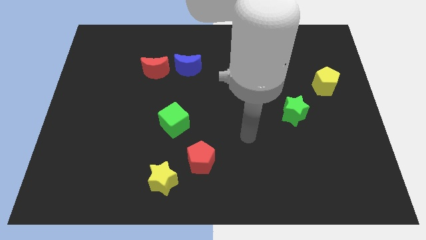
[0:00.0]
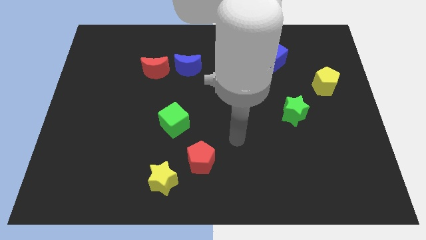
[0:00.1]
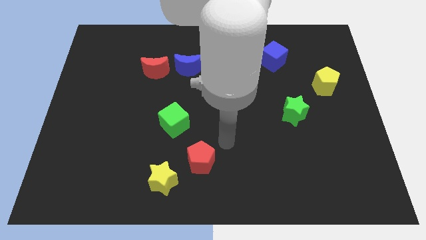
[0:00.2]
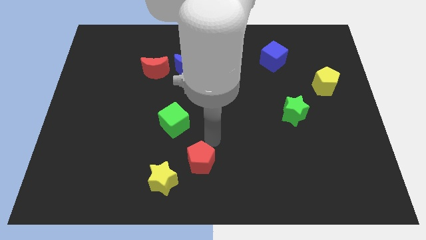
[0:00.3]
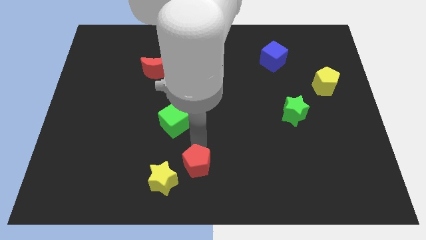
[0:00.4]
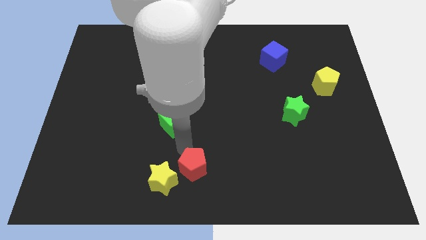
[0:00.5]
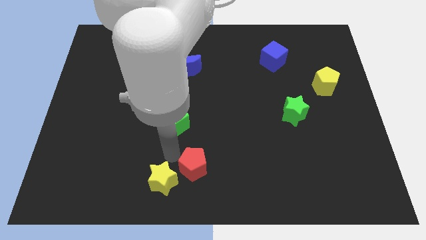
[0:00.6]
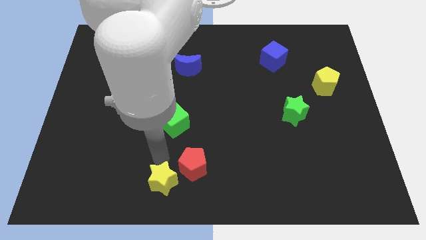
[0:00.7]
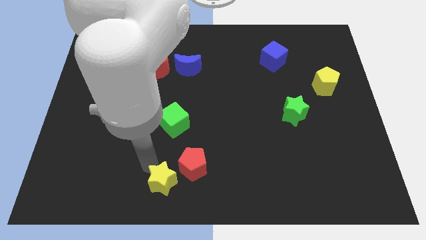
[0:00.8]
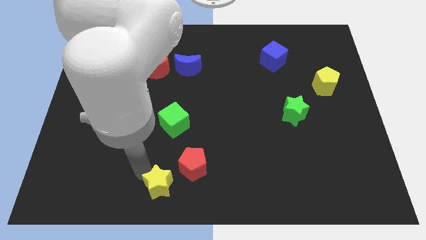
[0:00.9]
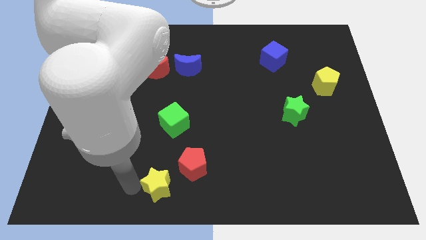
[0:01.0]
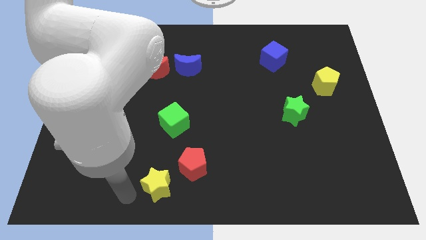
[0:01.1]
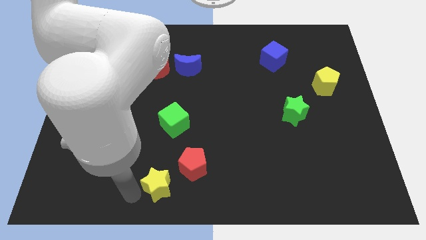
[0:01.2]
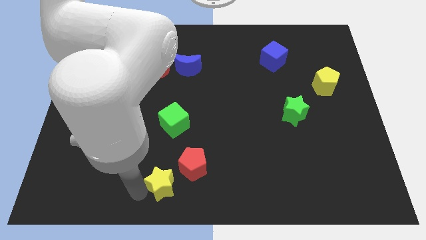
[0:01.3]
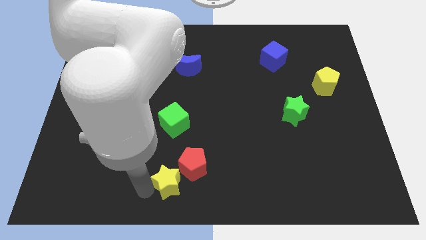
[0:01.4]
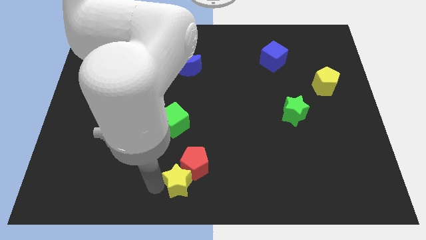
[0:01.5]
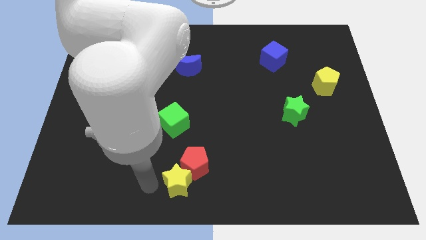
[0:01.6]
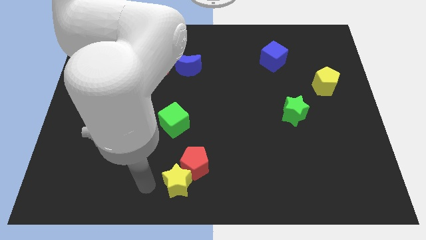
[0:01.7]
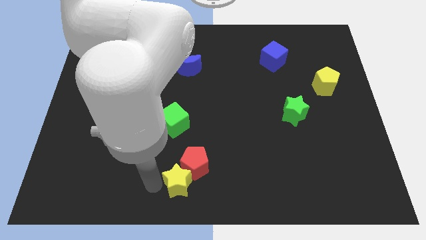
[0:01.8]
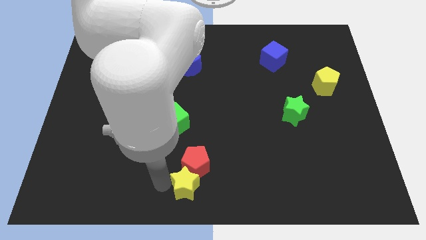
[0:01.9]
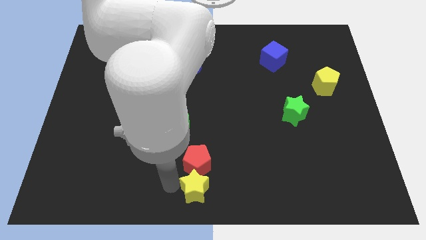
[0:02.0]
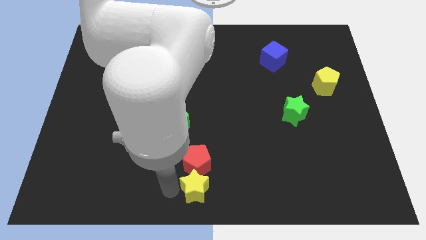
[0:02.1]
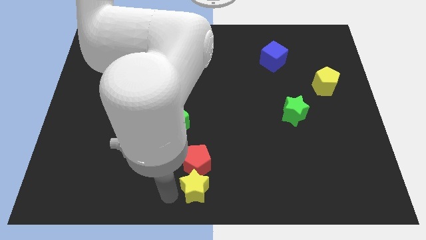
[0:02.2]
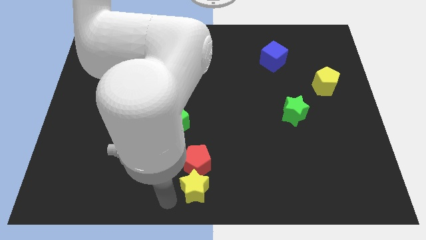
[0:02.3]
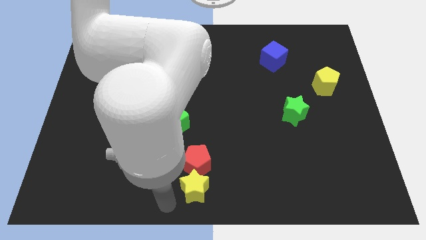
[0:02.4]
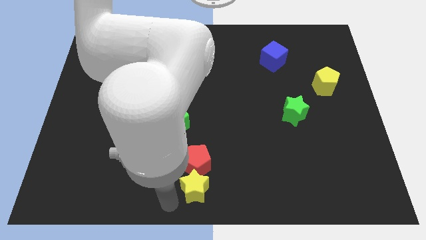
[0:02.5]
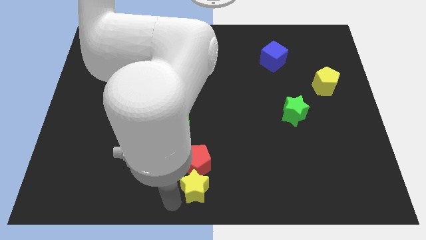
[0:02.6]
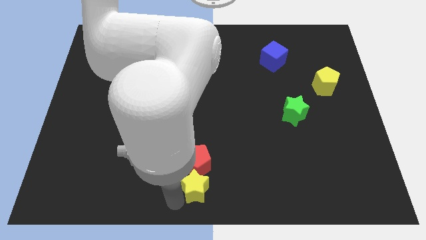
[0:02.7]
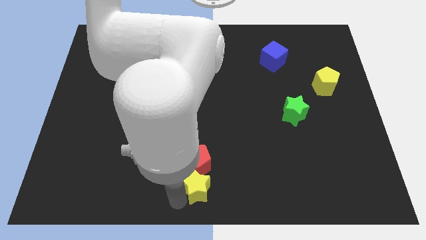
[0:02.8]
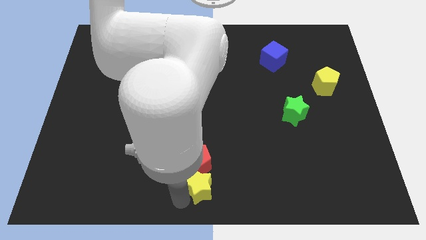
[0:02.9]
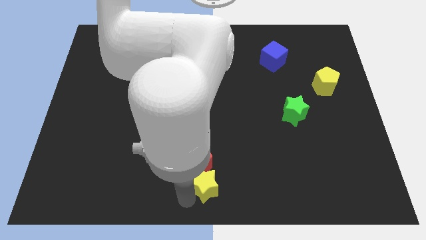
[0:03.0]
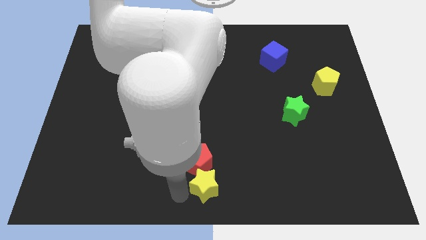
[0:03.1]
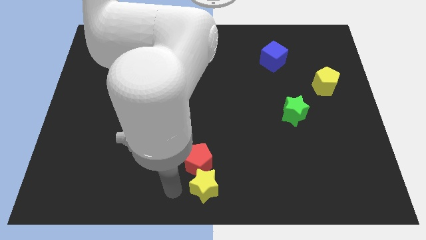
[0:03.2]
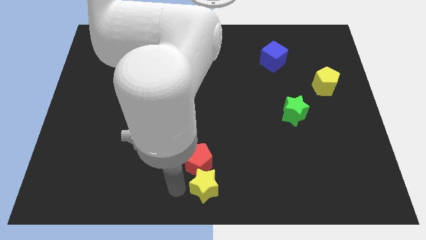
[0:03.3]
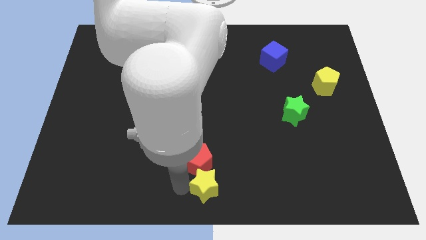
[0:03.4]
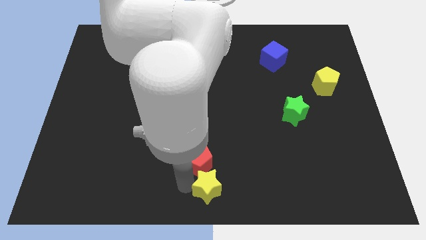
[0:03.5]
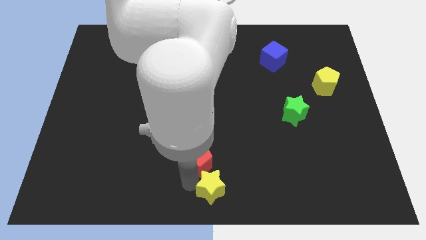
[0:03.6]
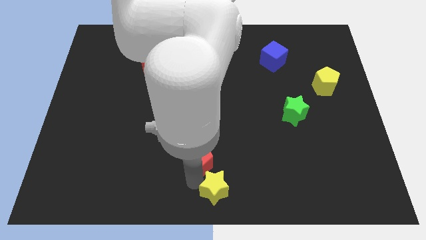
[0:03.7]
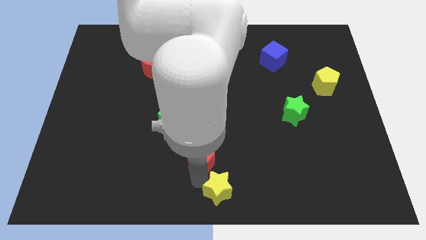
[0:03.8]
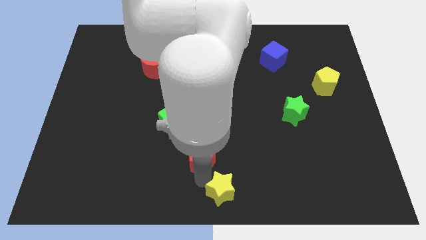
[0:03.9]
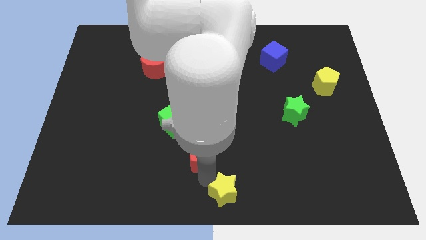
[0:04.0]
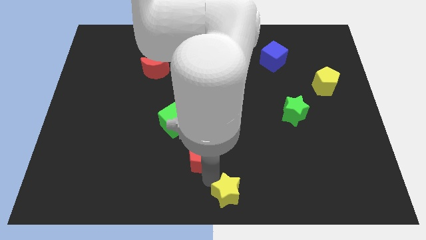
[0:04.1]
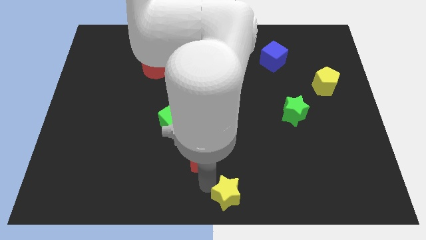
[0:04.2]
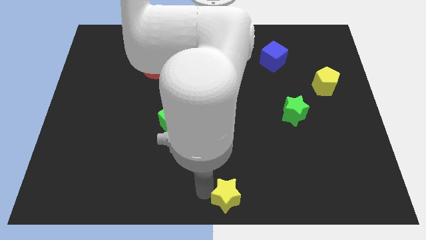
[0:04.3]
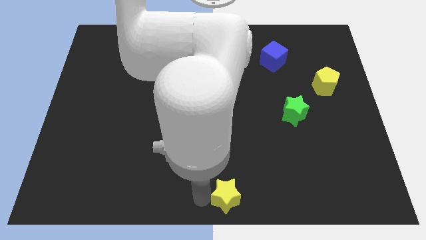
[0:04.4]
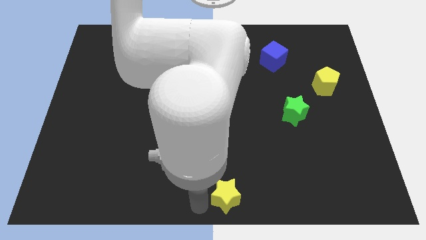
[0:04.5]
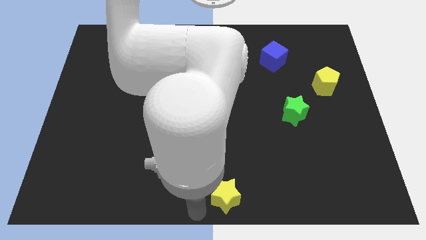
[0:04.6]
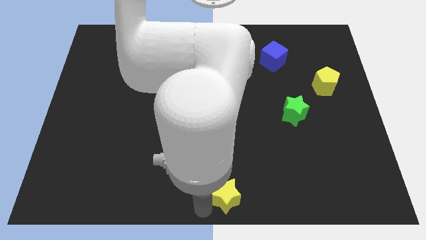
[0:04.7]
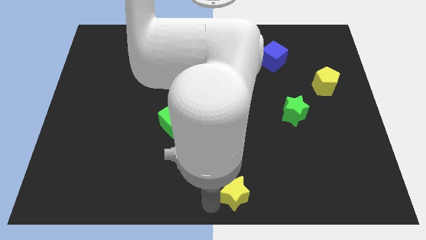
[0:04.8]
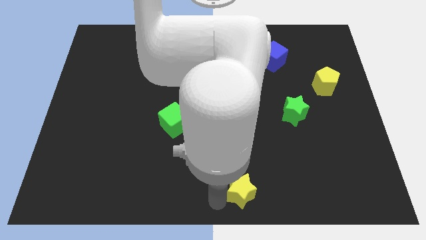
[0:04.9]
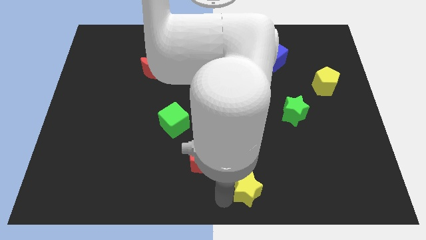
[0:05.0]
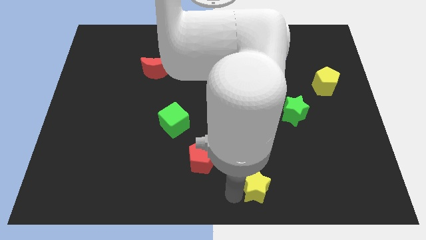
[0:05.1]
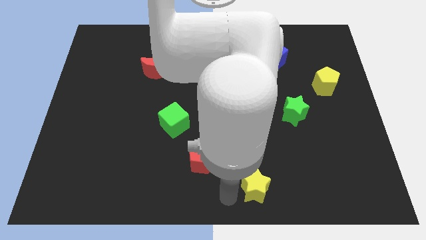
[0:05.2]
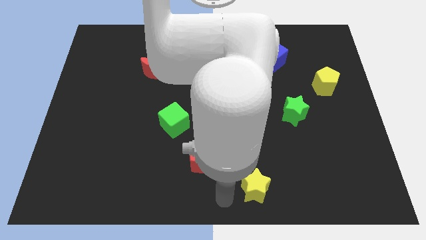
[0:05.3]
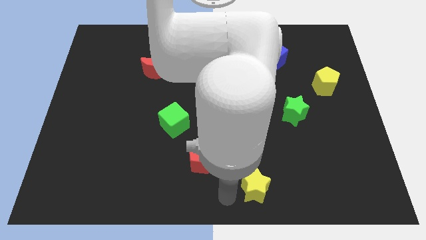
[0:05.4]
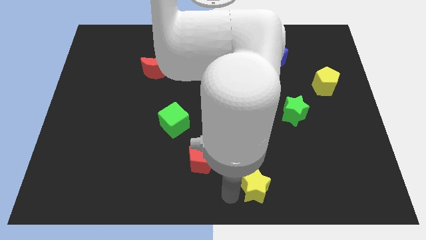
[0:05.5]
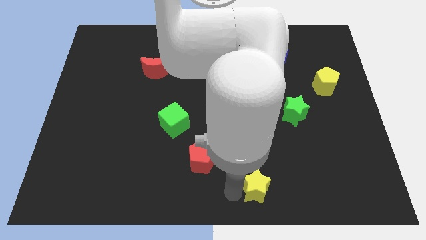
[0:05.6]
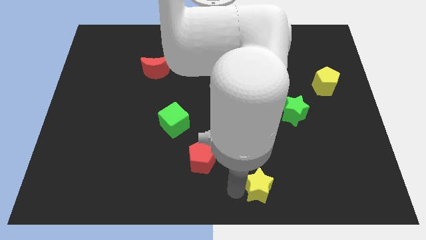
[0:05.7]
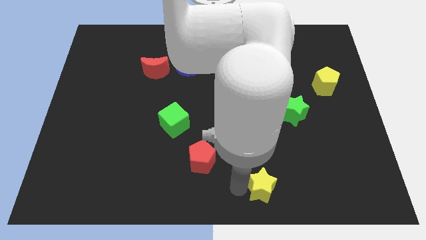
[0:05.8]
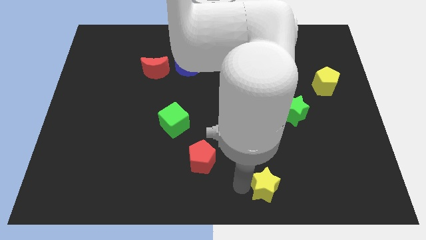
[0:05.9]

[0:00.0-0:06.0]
slide the yellow star right

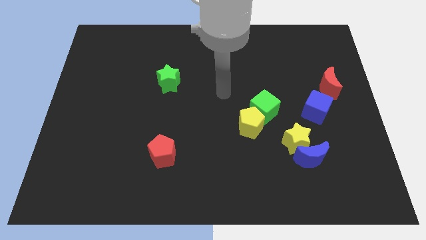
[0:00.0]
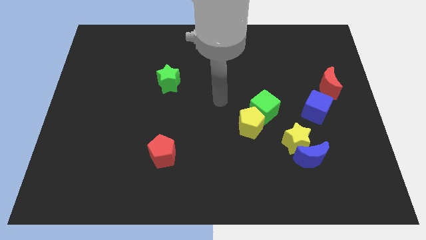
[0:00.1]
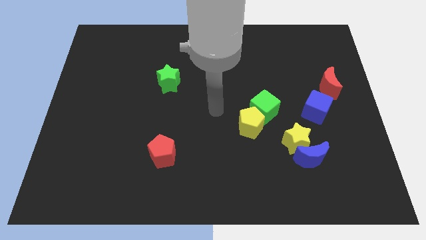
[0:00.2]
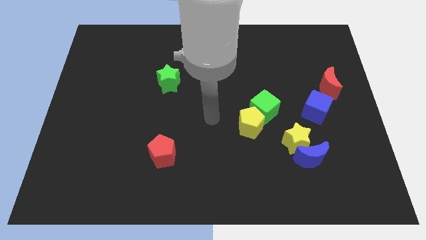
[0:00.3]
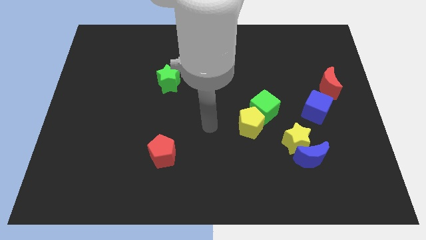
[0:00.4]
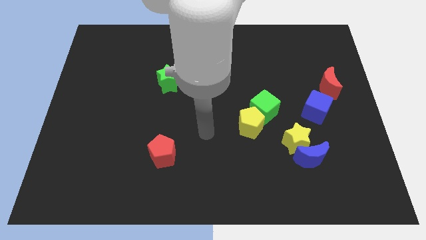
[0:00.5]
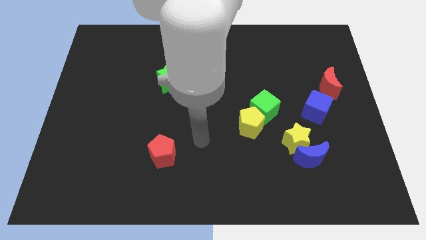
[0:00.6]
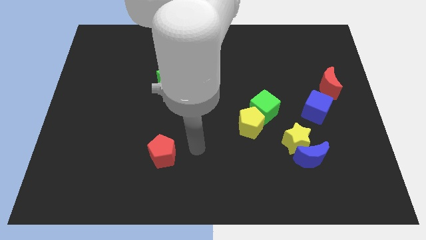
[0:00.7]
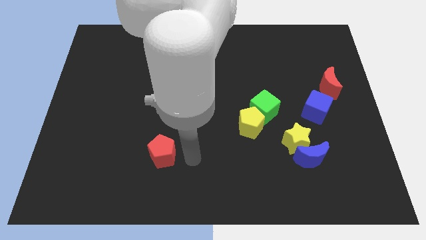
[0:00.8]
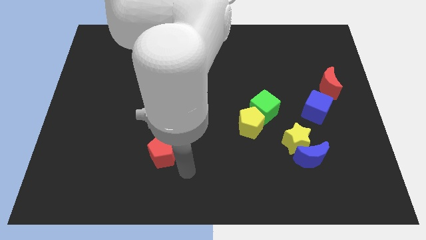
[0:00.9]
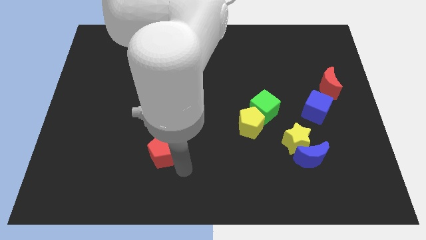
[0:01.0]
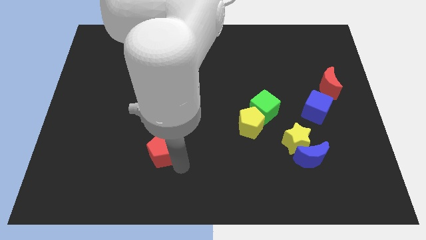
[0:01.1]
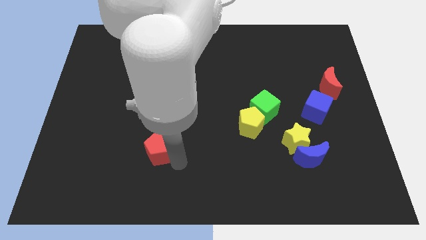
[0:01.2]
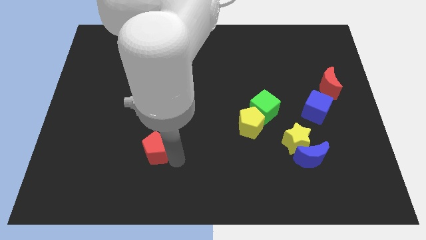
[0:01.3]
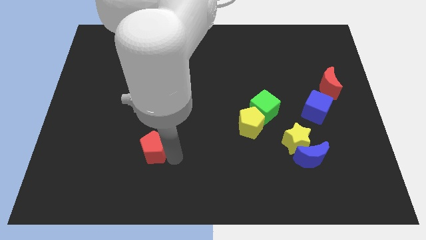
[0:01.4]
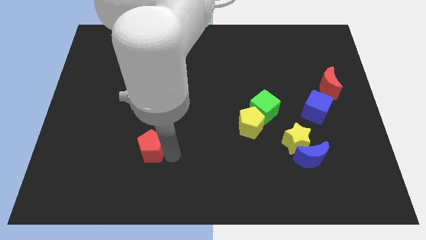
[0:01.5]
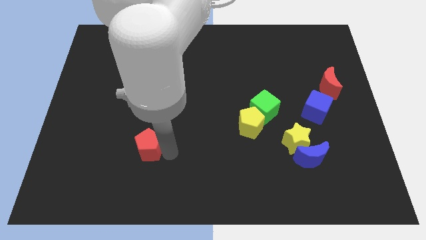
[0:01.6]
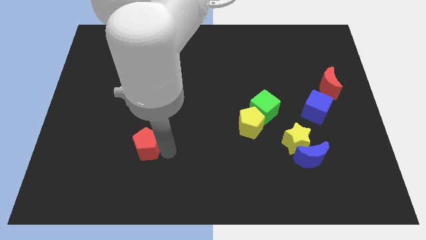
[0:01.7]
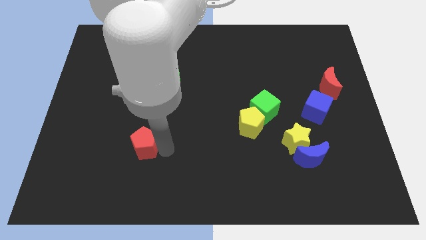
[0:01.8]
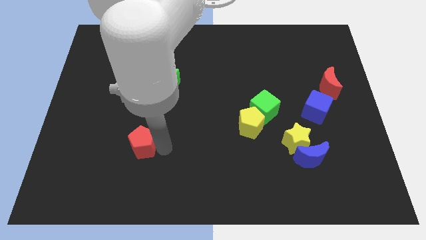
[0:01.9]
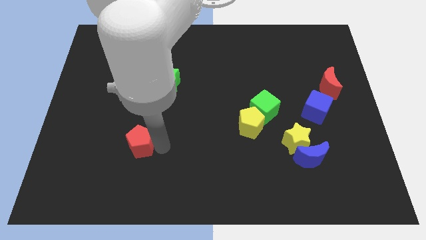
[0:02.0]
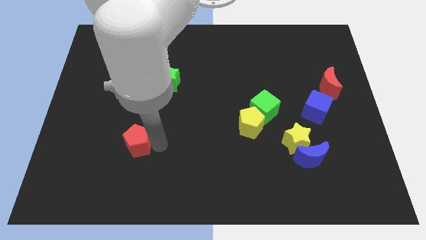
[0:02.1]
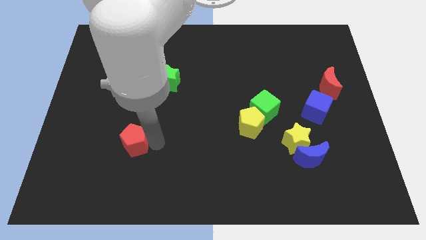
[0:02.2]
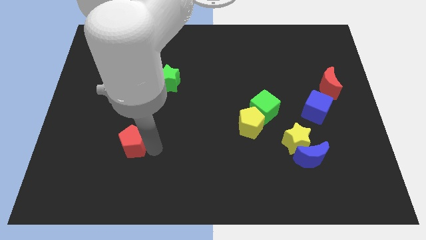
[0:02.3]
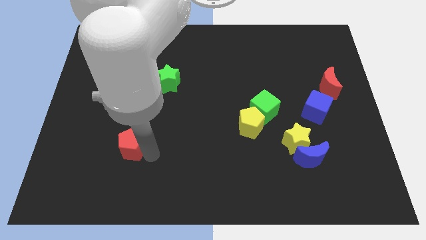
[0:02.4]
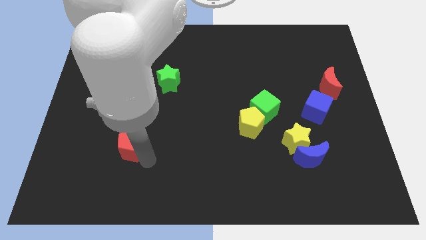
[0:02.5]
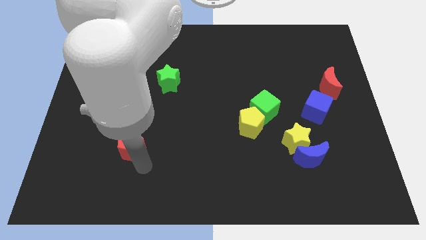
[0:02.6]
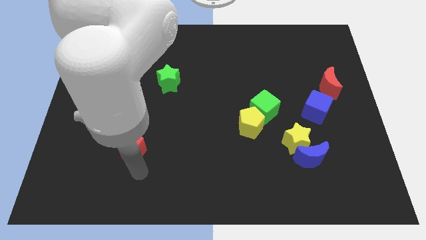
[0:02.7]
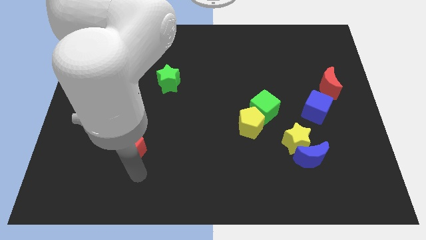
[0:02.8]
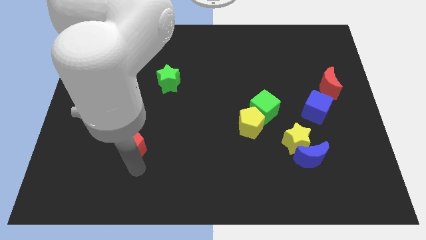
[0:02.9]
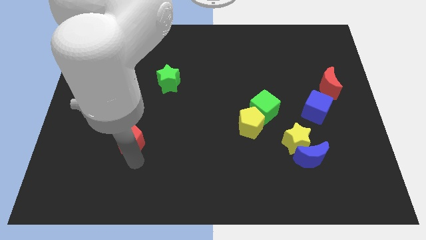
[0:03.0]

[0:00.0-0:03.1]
push the red pentagon upwards and then to the left a little bit
